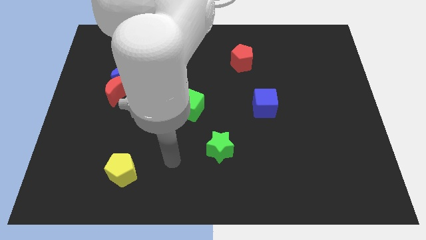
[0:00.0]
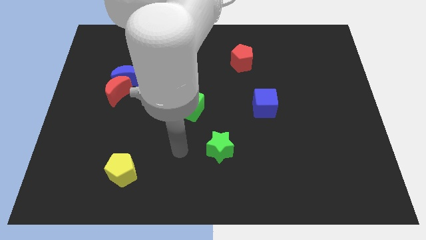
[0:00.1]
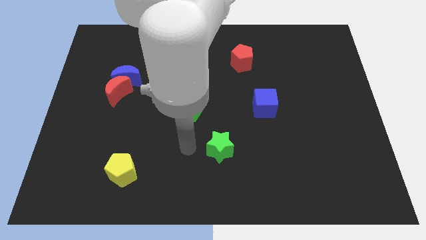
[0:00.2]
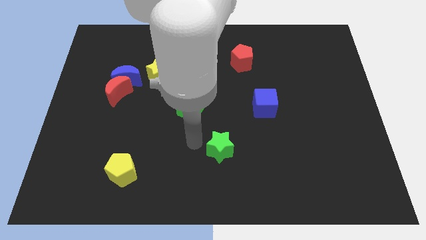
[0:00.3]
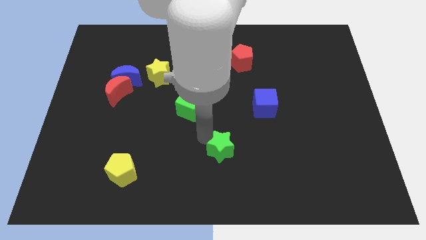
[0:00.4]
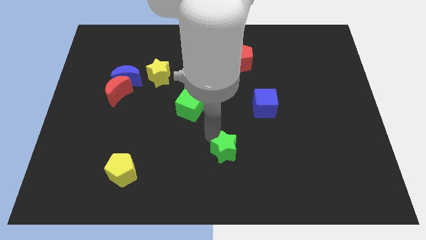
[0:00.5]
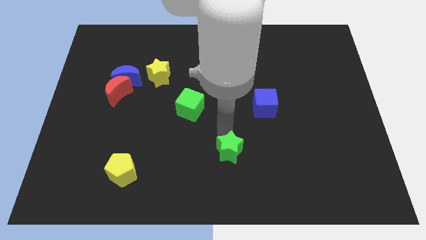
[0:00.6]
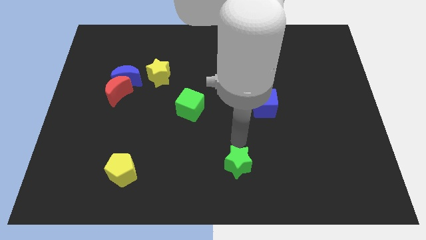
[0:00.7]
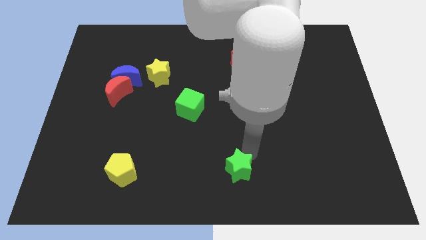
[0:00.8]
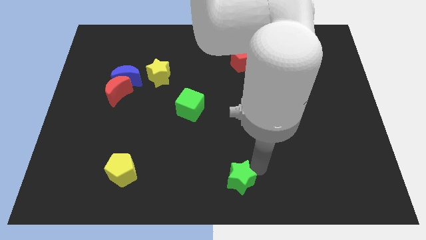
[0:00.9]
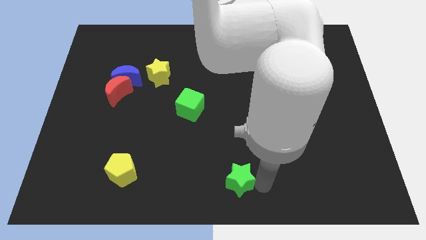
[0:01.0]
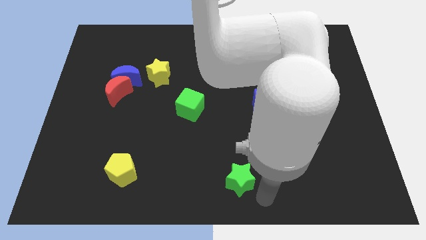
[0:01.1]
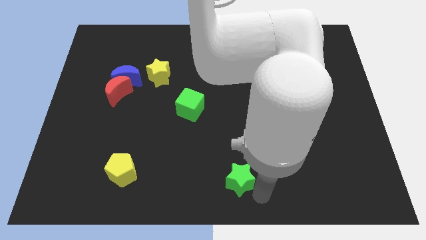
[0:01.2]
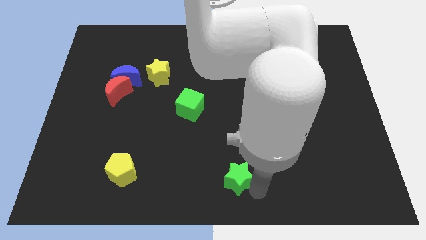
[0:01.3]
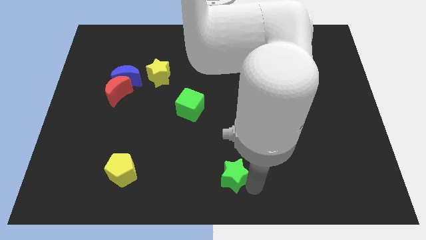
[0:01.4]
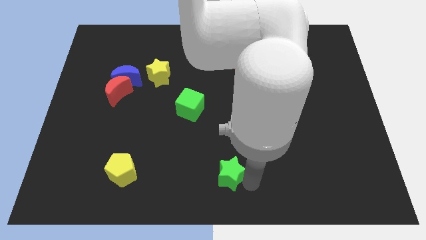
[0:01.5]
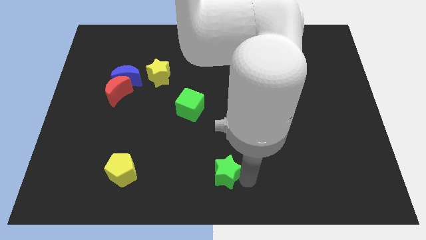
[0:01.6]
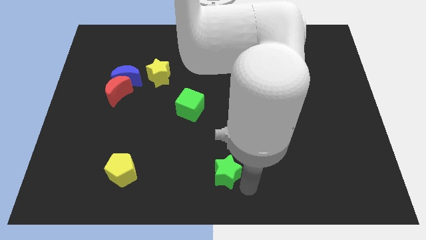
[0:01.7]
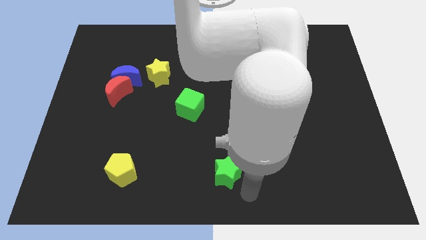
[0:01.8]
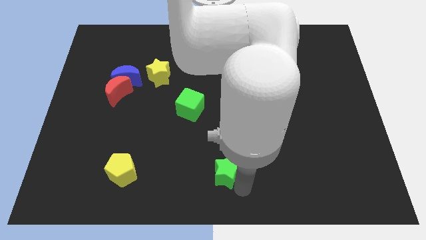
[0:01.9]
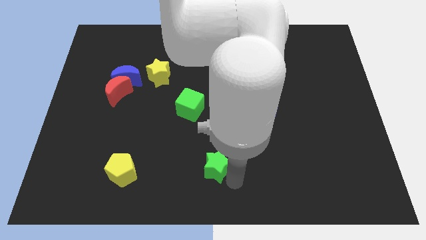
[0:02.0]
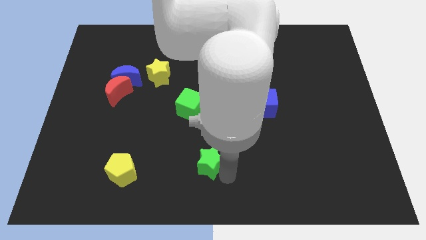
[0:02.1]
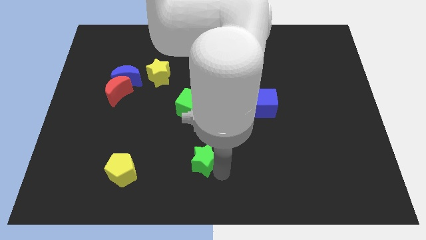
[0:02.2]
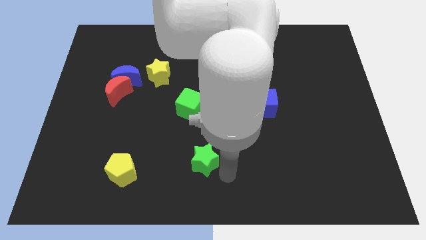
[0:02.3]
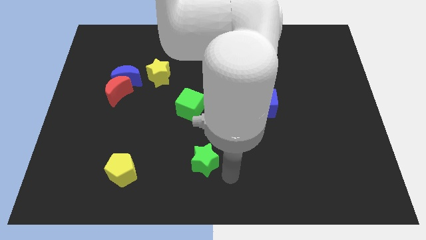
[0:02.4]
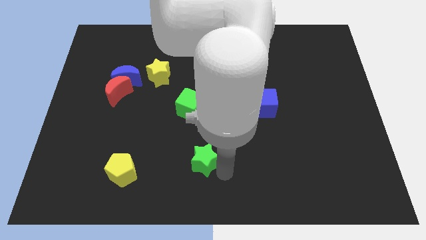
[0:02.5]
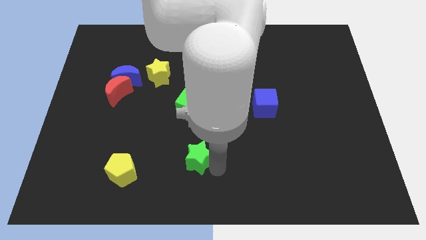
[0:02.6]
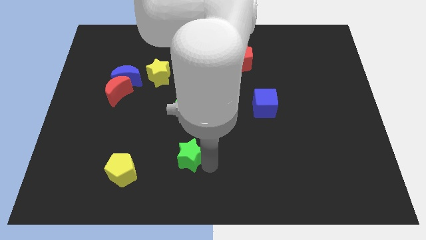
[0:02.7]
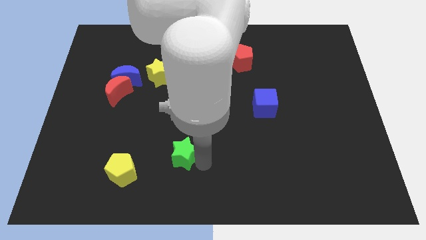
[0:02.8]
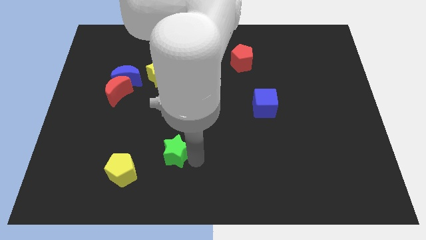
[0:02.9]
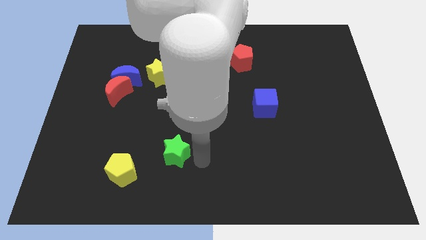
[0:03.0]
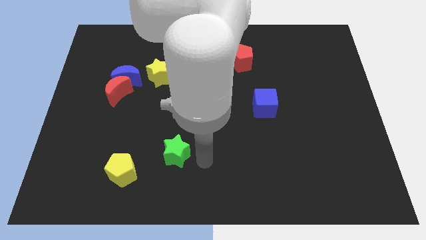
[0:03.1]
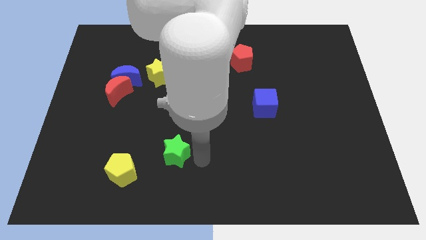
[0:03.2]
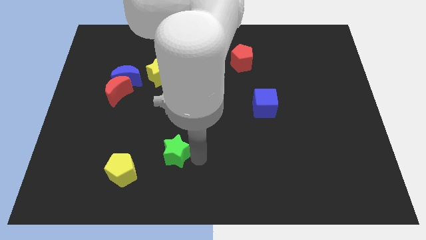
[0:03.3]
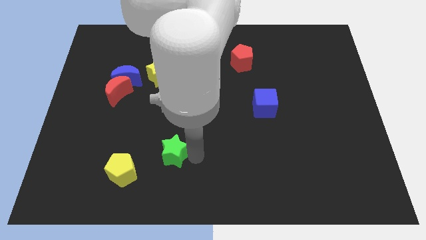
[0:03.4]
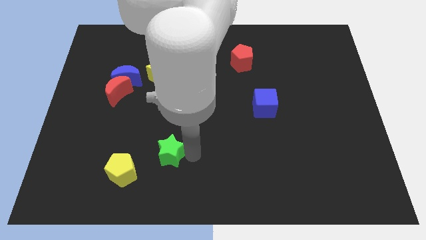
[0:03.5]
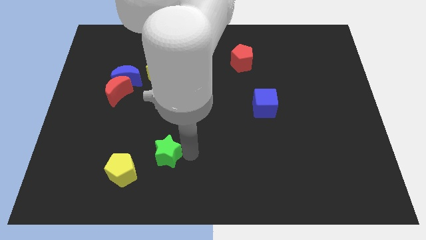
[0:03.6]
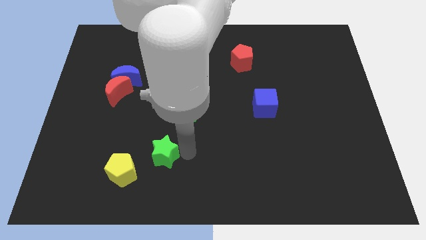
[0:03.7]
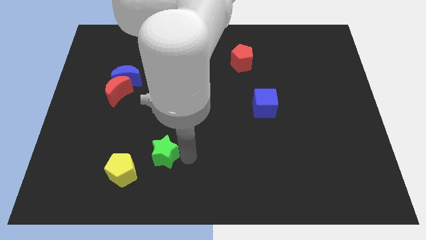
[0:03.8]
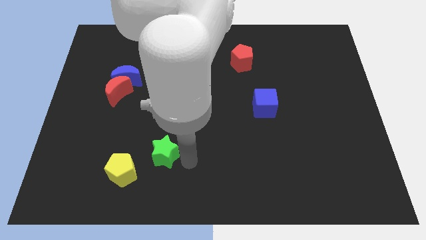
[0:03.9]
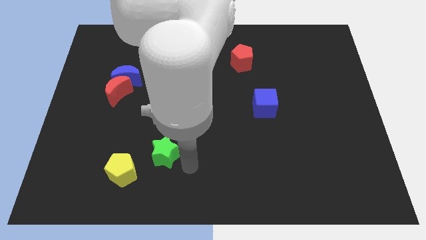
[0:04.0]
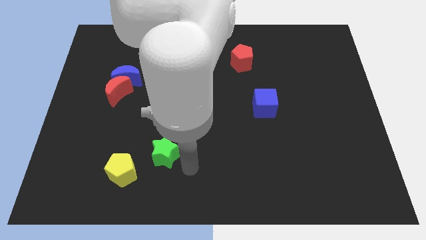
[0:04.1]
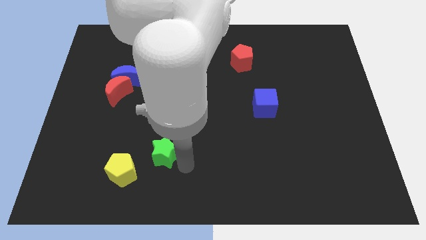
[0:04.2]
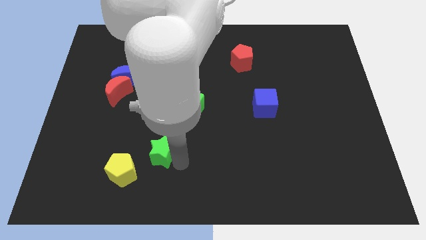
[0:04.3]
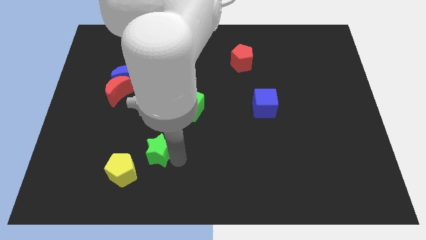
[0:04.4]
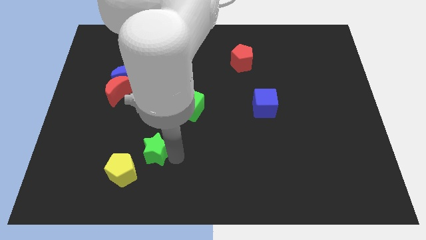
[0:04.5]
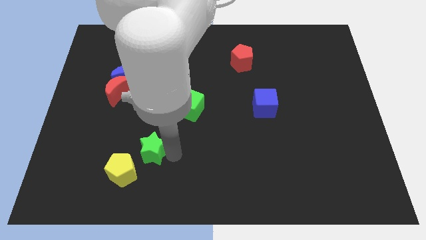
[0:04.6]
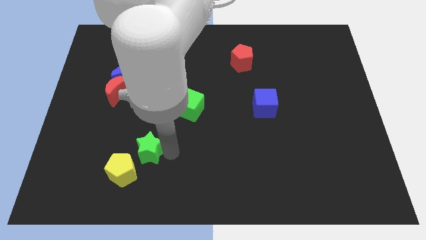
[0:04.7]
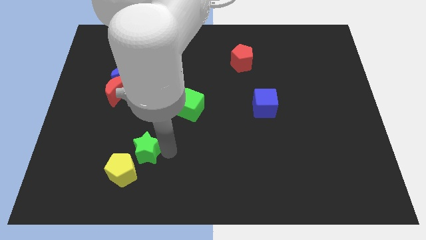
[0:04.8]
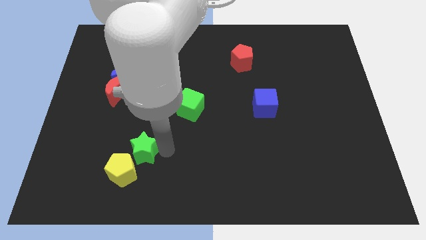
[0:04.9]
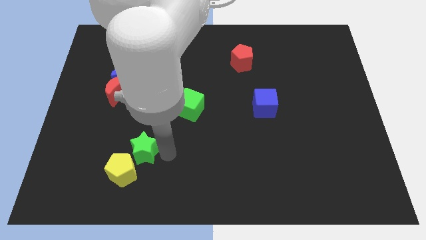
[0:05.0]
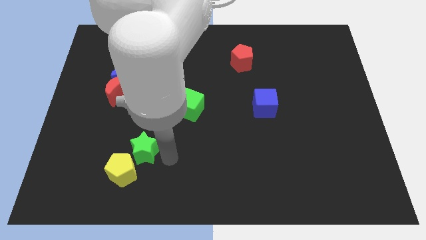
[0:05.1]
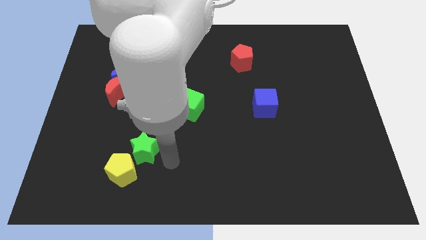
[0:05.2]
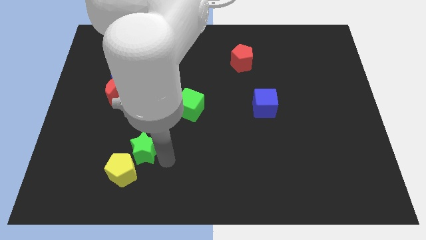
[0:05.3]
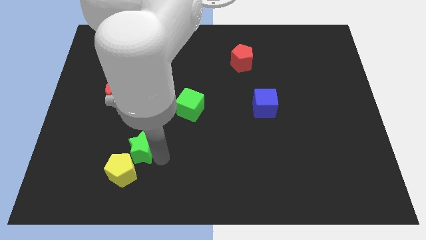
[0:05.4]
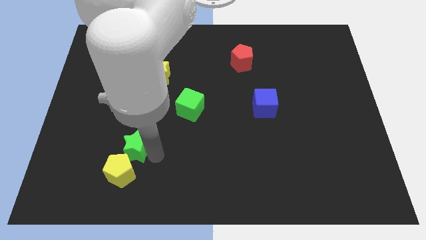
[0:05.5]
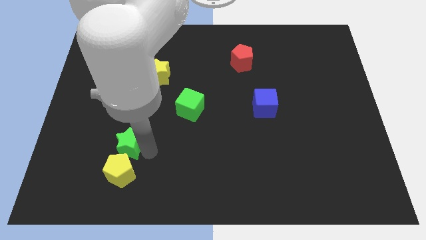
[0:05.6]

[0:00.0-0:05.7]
move the green star to the top left of the yellow pentagon

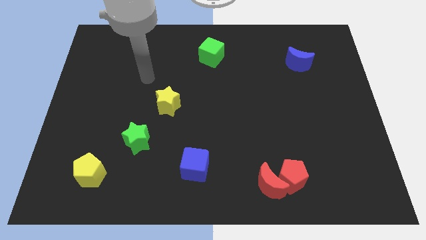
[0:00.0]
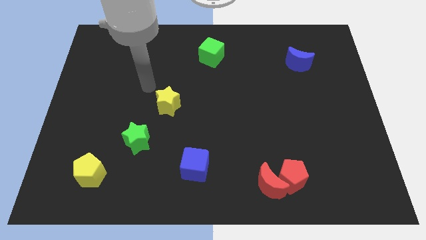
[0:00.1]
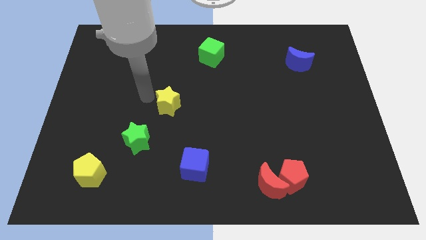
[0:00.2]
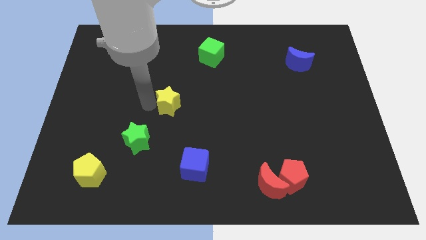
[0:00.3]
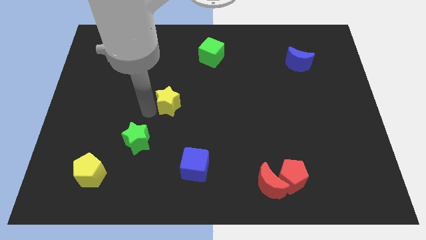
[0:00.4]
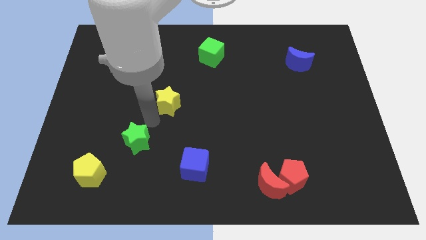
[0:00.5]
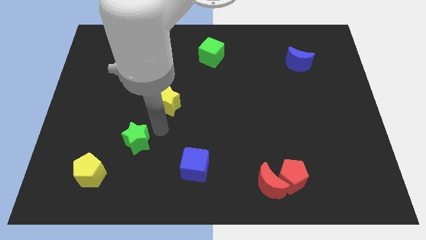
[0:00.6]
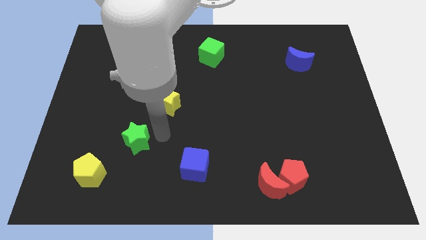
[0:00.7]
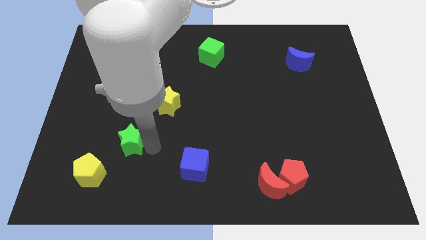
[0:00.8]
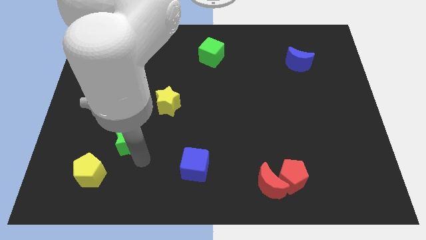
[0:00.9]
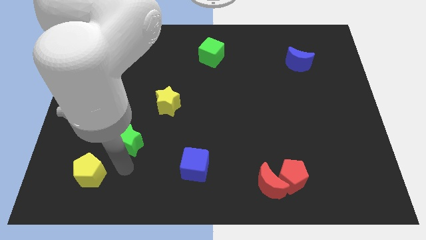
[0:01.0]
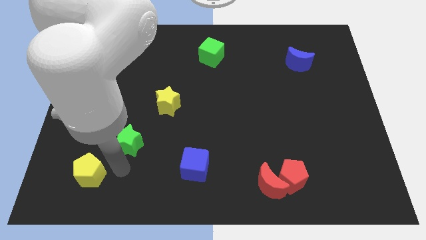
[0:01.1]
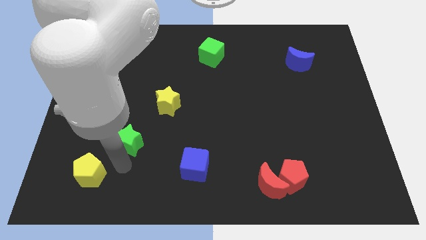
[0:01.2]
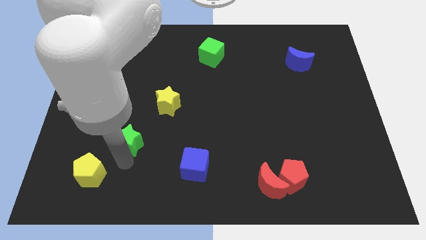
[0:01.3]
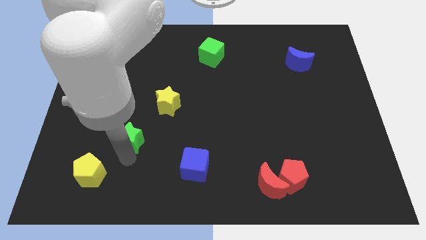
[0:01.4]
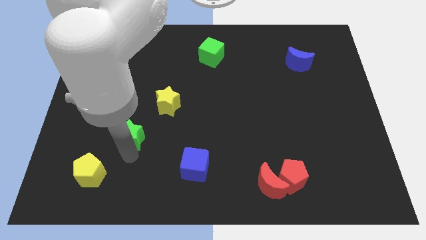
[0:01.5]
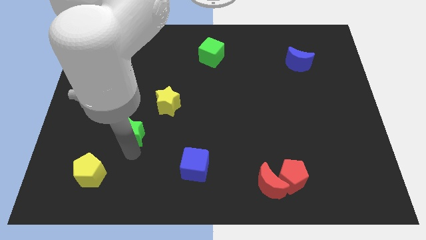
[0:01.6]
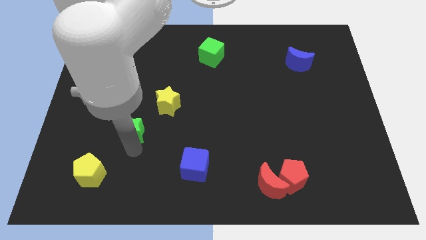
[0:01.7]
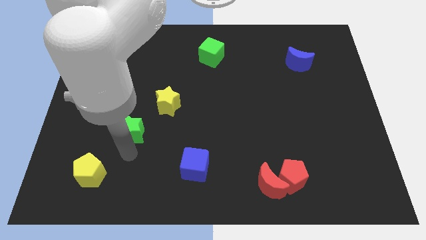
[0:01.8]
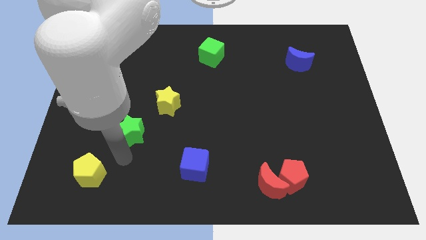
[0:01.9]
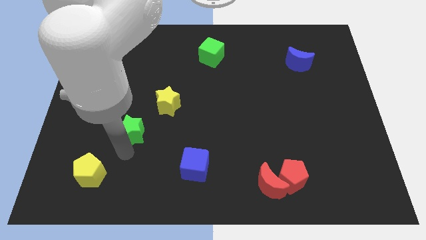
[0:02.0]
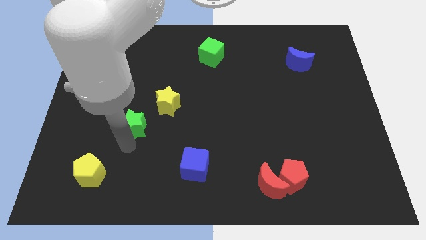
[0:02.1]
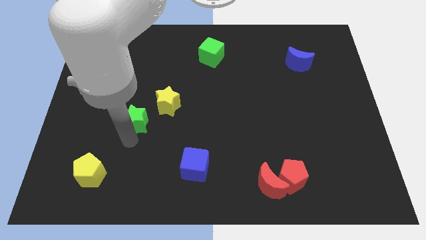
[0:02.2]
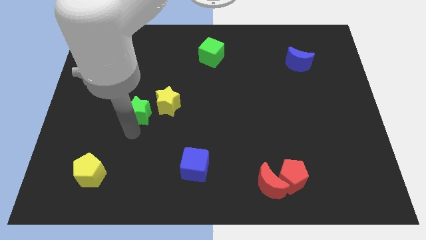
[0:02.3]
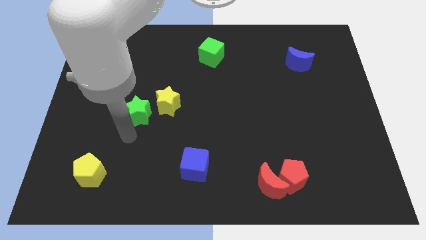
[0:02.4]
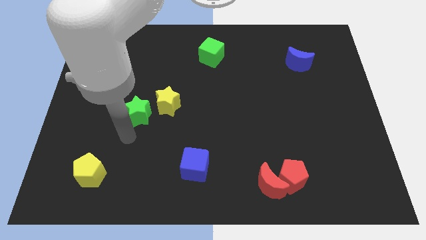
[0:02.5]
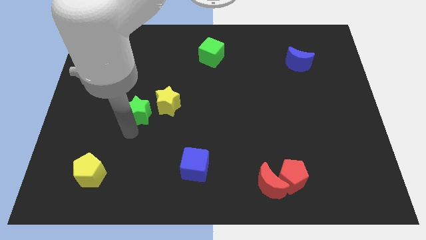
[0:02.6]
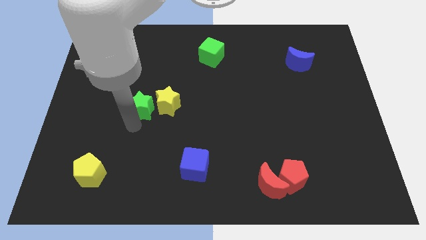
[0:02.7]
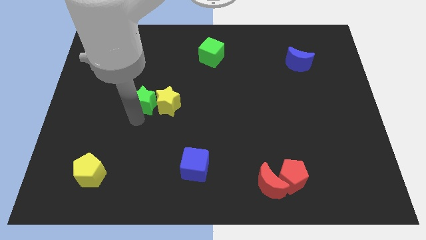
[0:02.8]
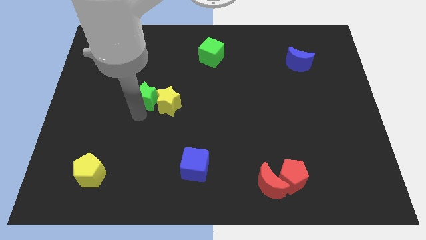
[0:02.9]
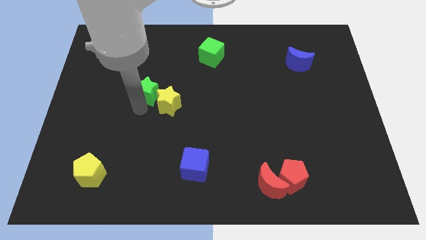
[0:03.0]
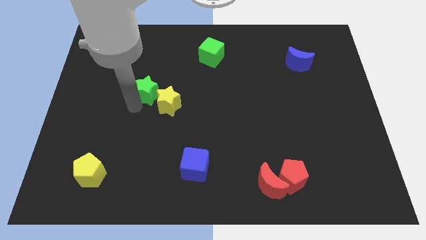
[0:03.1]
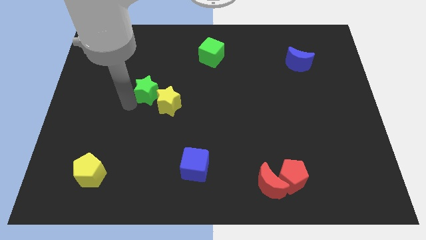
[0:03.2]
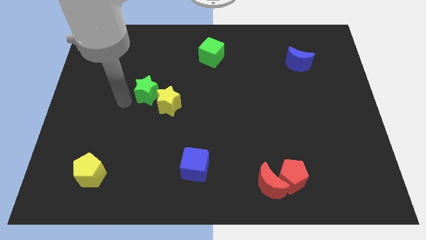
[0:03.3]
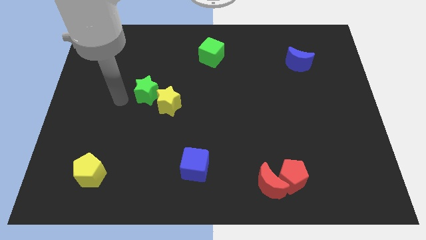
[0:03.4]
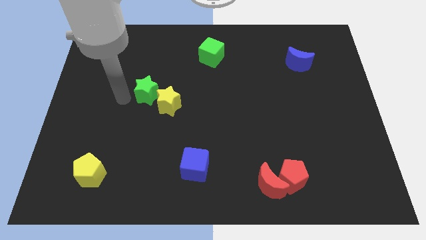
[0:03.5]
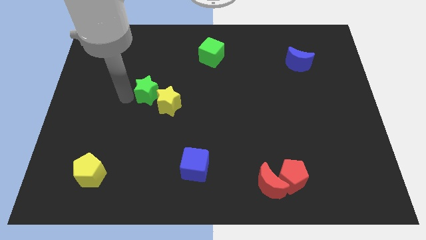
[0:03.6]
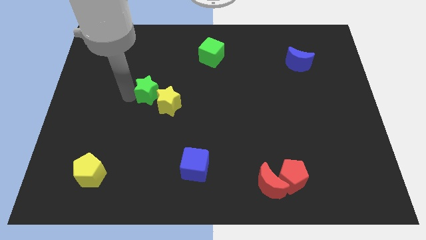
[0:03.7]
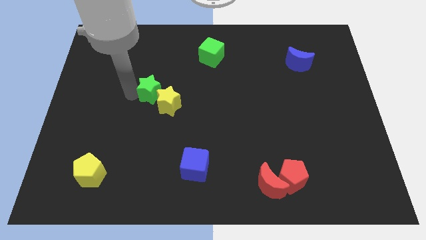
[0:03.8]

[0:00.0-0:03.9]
slide the green star to the top side of the yellow star
